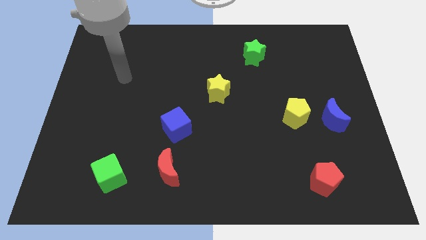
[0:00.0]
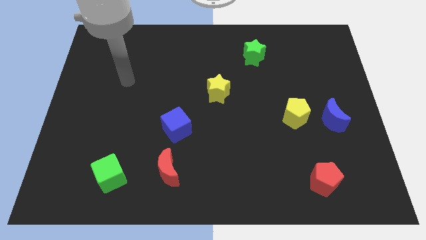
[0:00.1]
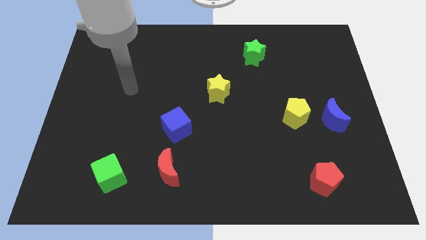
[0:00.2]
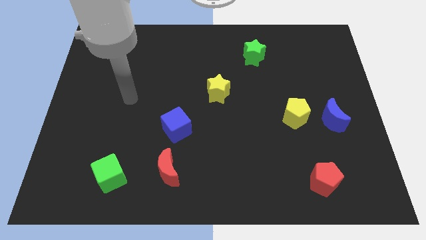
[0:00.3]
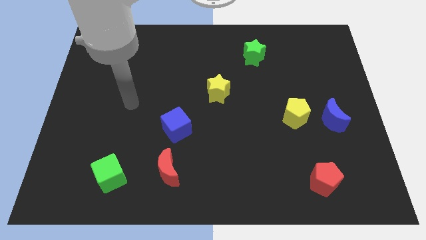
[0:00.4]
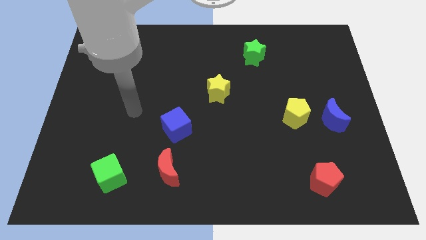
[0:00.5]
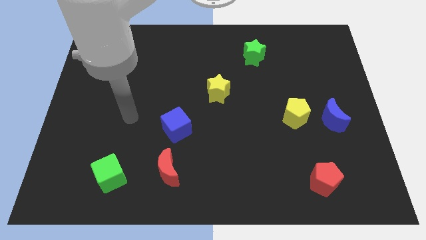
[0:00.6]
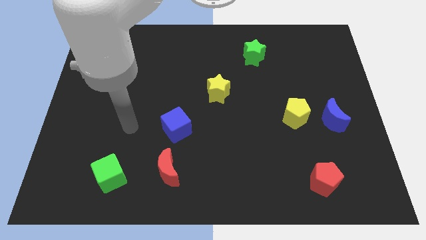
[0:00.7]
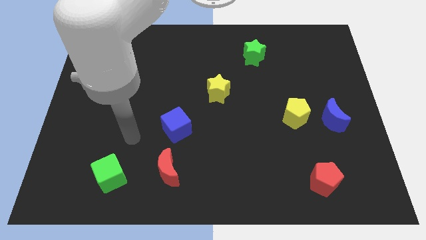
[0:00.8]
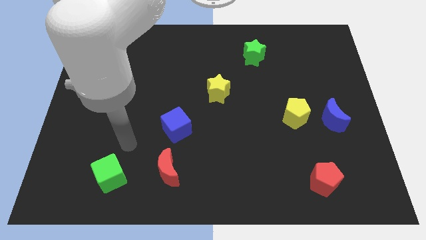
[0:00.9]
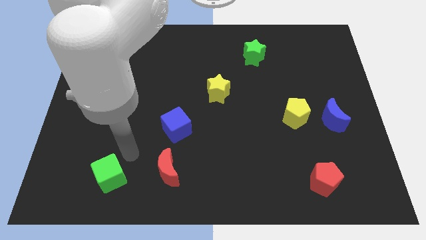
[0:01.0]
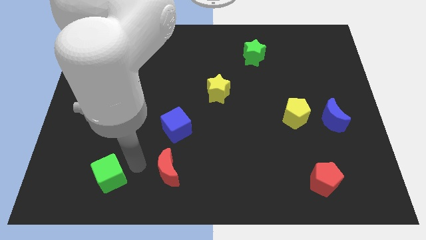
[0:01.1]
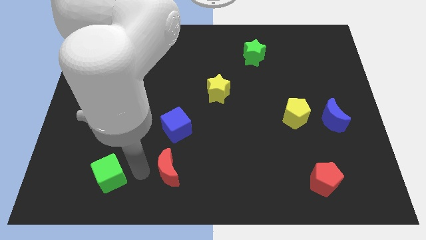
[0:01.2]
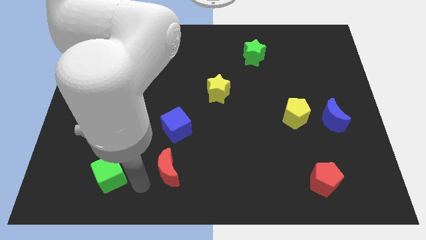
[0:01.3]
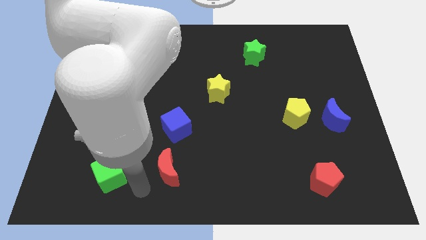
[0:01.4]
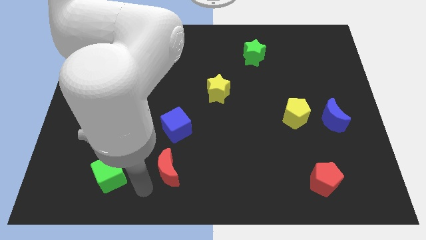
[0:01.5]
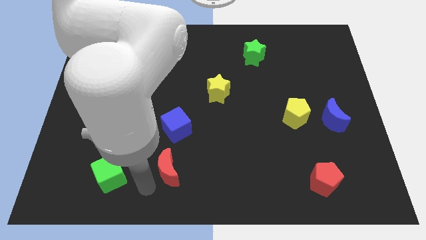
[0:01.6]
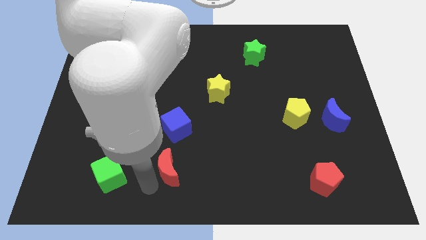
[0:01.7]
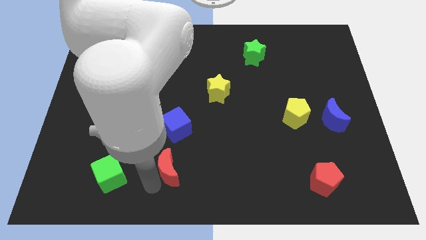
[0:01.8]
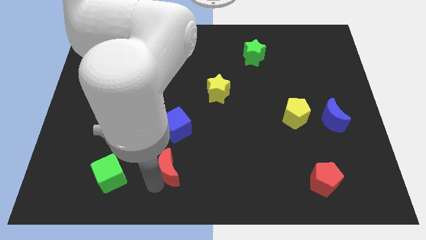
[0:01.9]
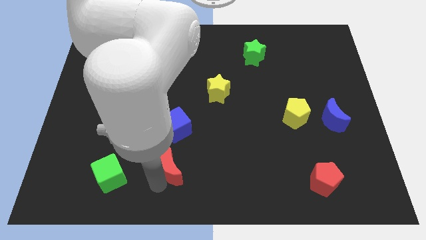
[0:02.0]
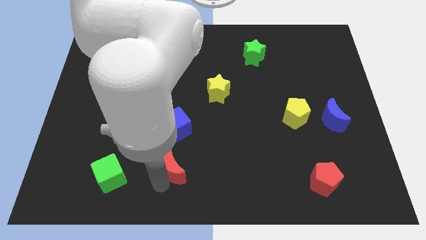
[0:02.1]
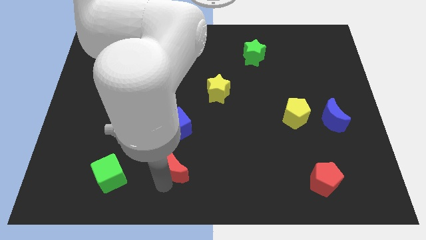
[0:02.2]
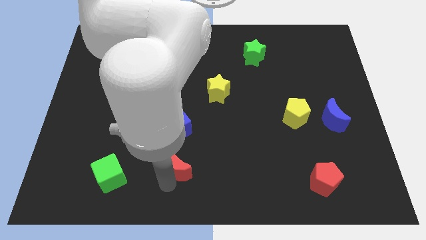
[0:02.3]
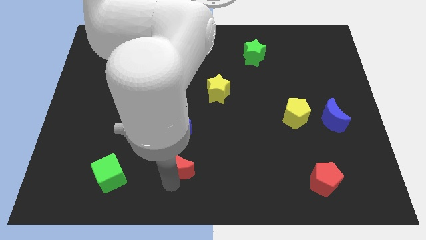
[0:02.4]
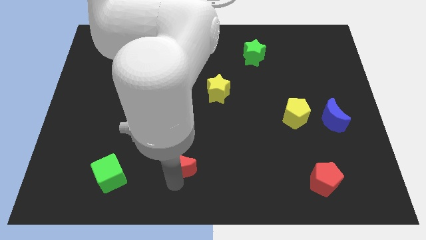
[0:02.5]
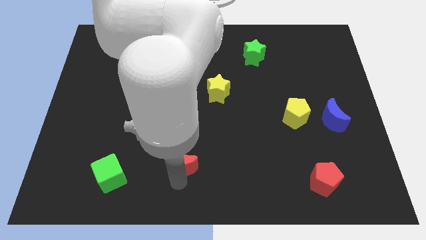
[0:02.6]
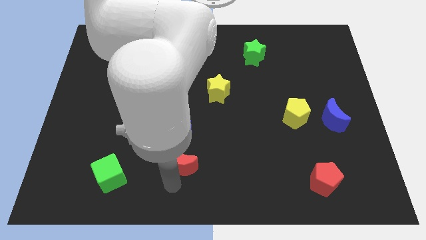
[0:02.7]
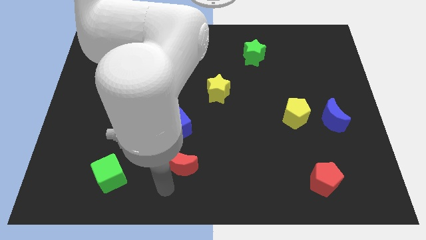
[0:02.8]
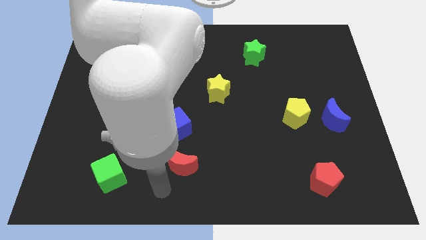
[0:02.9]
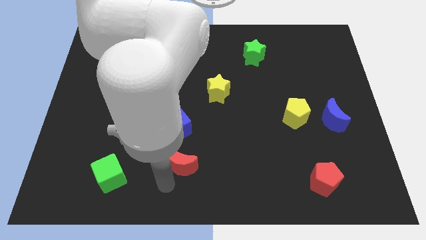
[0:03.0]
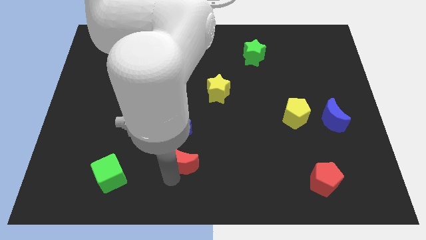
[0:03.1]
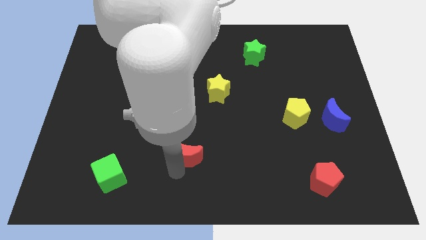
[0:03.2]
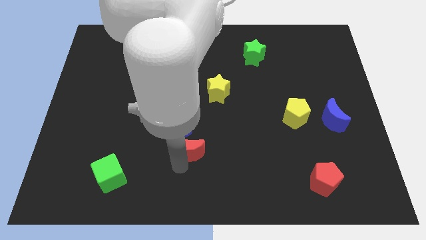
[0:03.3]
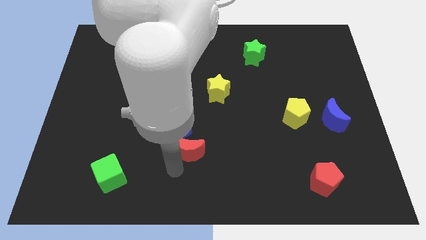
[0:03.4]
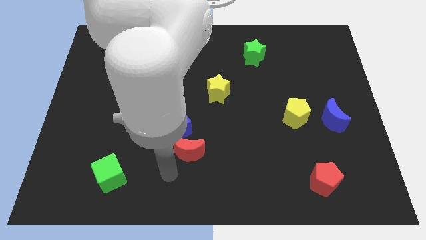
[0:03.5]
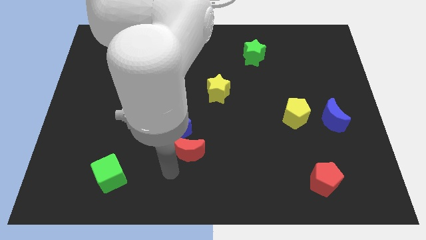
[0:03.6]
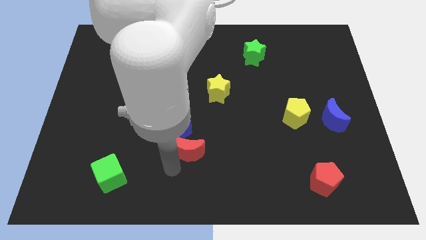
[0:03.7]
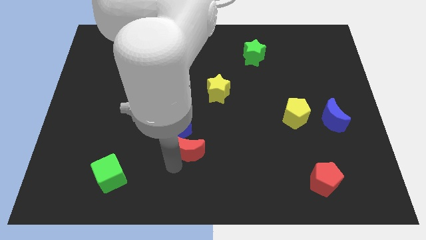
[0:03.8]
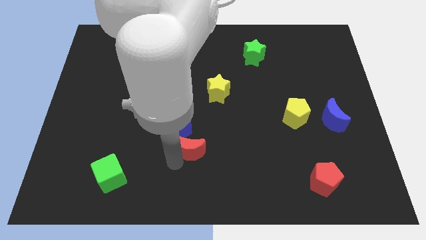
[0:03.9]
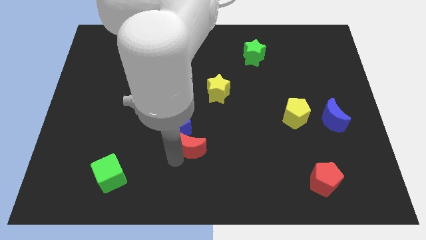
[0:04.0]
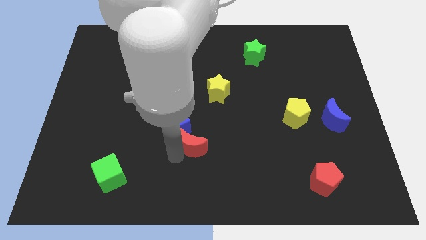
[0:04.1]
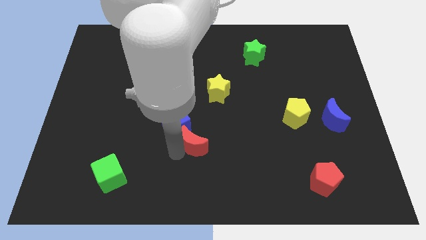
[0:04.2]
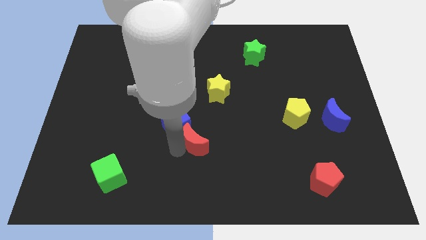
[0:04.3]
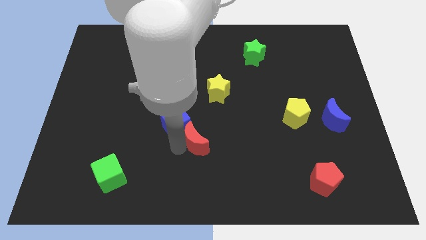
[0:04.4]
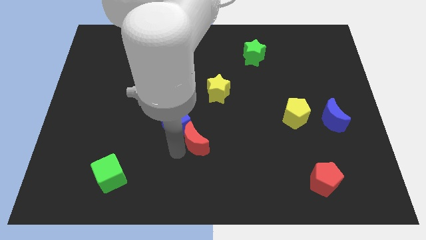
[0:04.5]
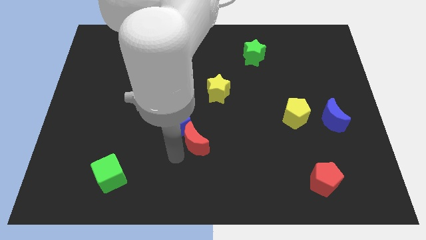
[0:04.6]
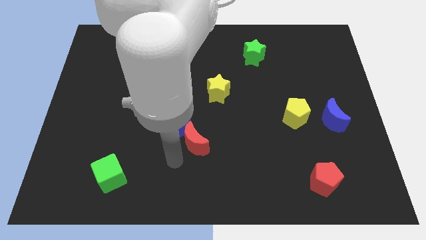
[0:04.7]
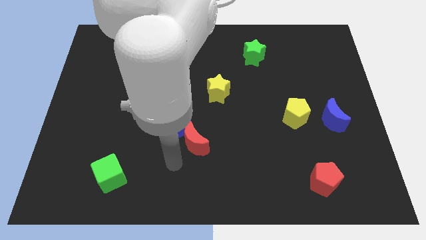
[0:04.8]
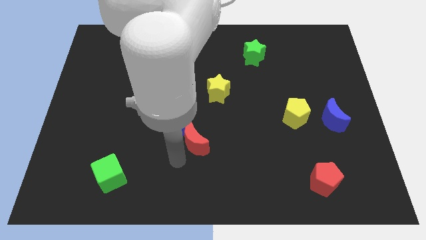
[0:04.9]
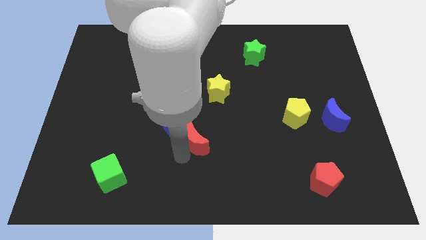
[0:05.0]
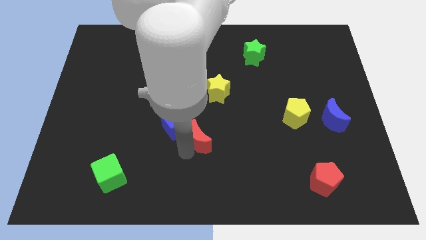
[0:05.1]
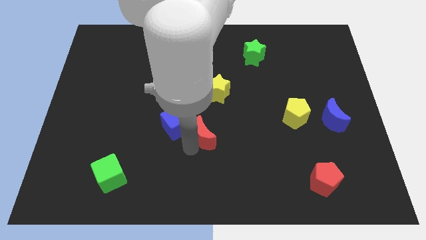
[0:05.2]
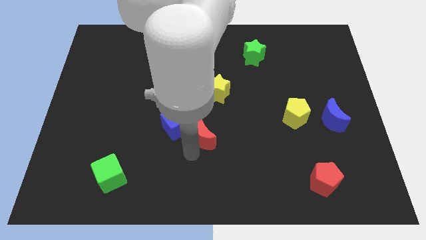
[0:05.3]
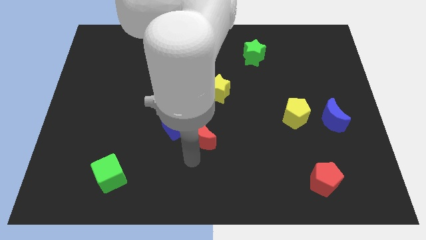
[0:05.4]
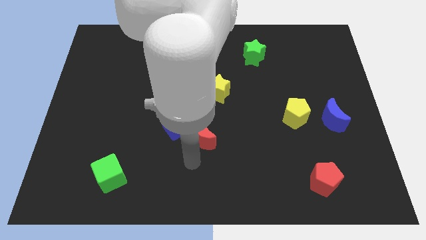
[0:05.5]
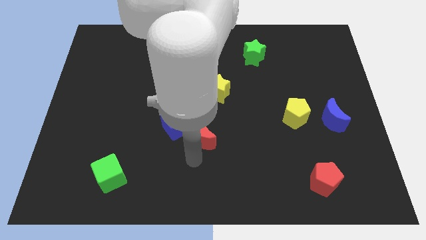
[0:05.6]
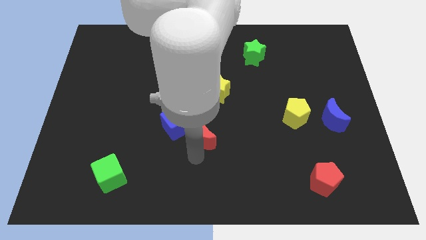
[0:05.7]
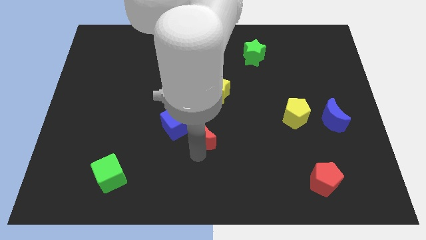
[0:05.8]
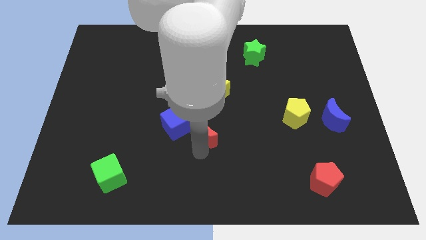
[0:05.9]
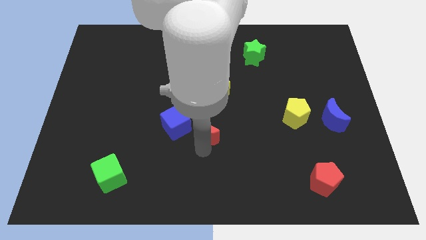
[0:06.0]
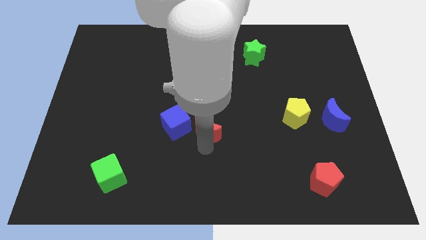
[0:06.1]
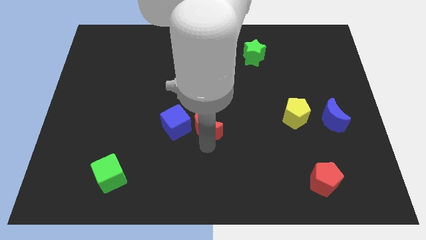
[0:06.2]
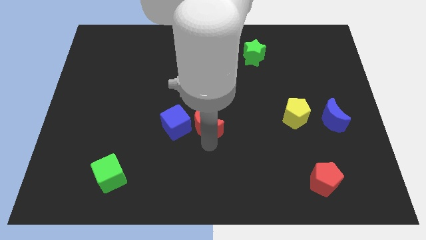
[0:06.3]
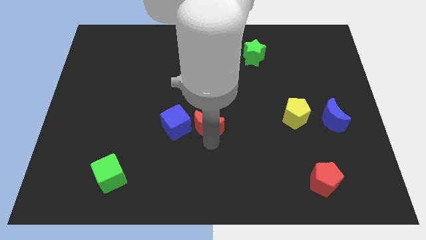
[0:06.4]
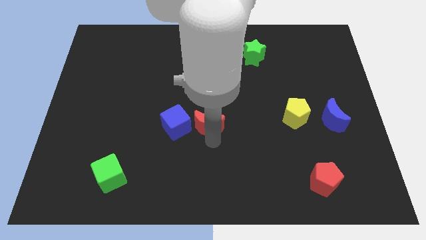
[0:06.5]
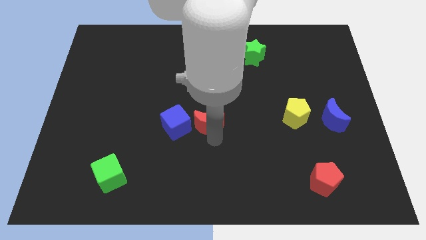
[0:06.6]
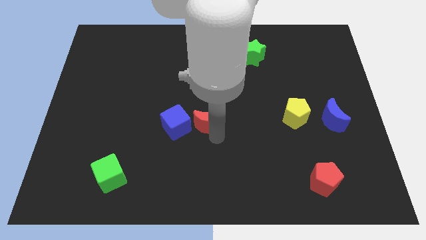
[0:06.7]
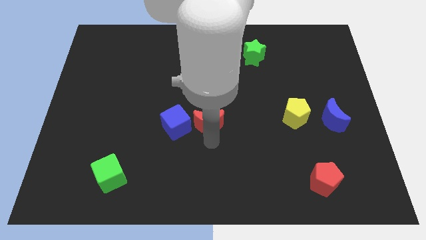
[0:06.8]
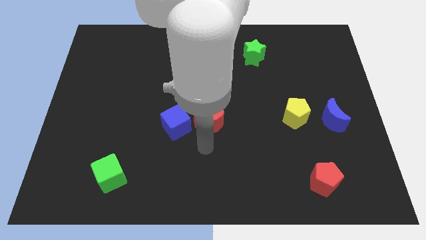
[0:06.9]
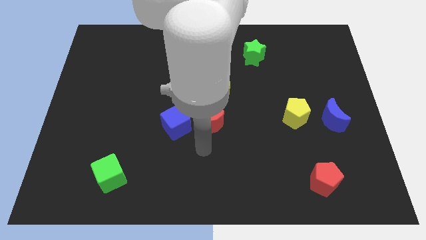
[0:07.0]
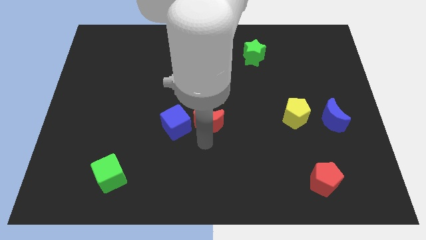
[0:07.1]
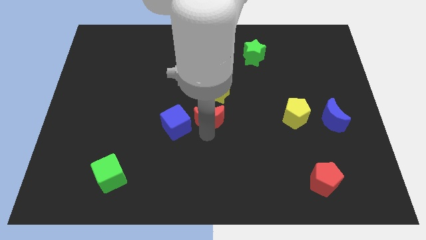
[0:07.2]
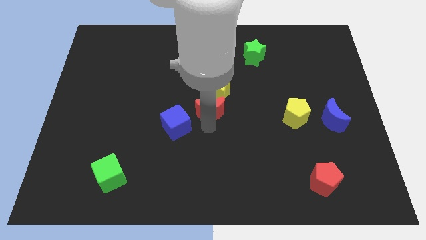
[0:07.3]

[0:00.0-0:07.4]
move the red moon close to the yellow star
